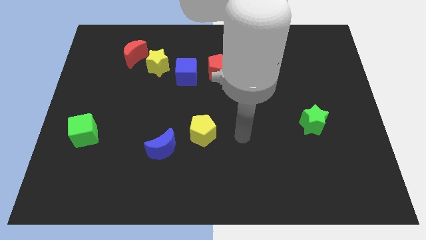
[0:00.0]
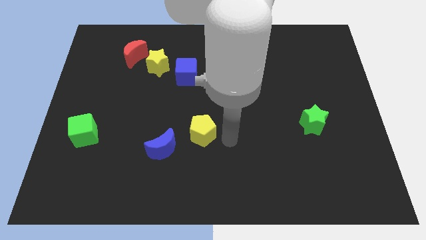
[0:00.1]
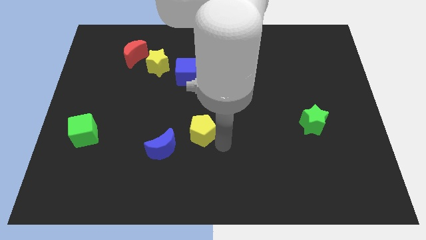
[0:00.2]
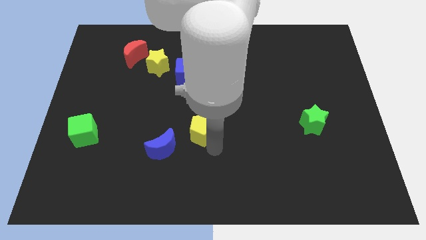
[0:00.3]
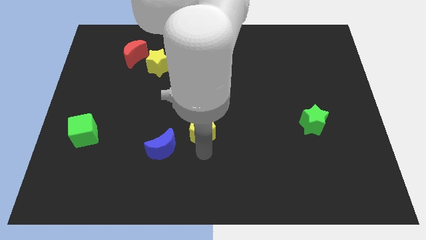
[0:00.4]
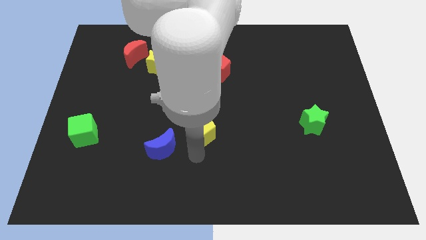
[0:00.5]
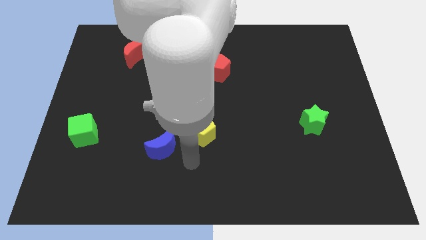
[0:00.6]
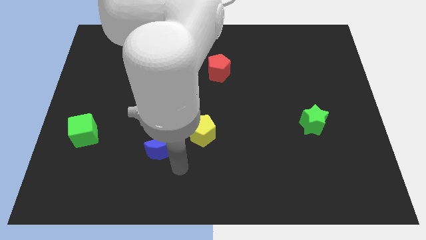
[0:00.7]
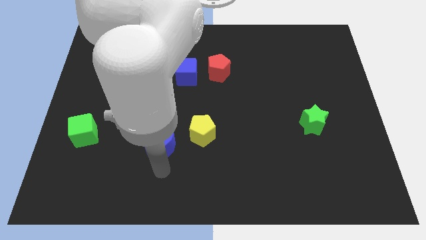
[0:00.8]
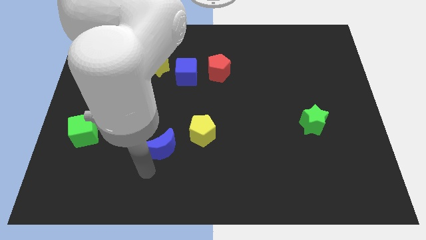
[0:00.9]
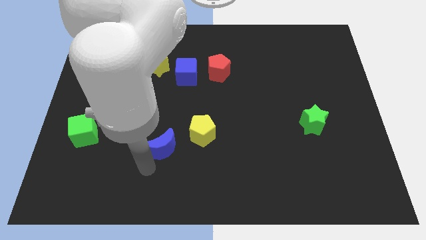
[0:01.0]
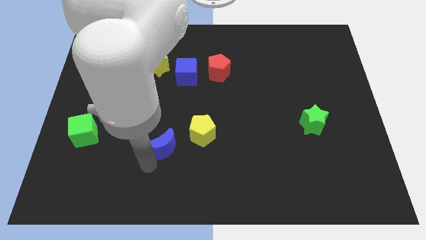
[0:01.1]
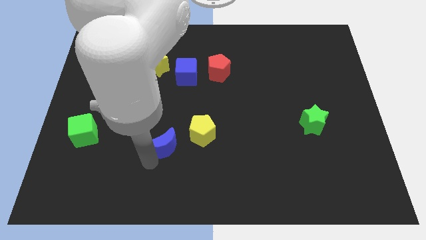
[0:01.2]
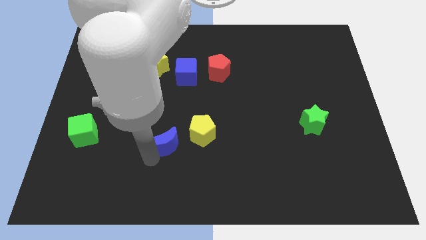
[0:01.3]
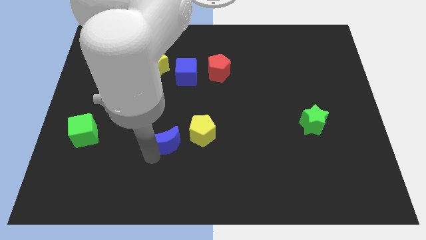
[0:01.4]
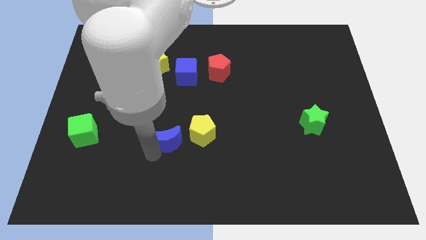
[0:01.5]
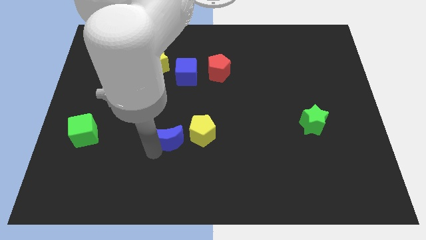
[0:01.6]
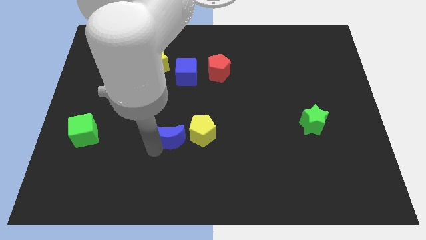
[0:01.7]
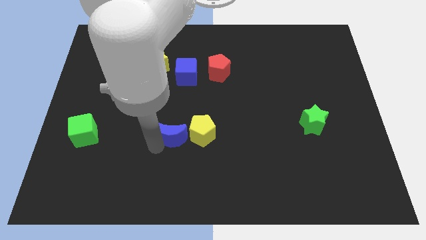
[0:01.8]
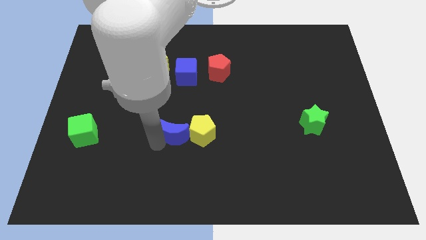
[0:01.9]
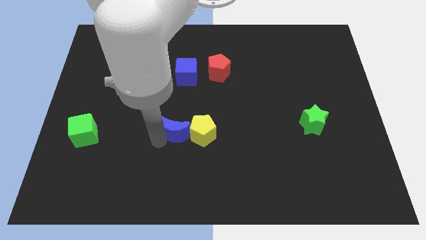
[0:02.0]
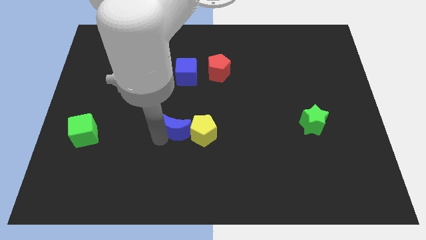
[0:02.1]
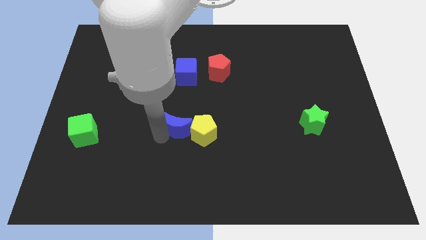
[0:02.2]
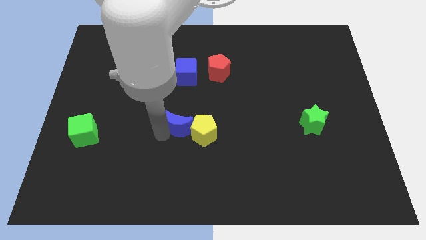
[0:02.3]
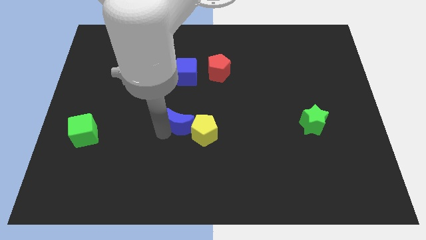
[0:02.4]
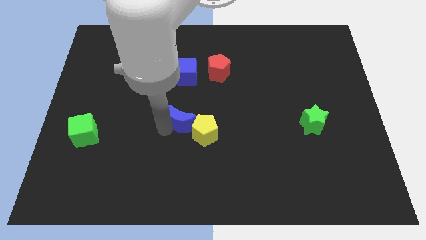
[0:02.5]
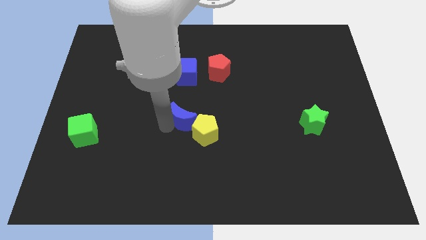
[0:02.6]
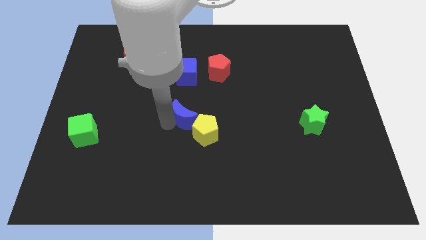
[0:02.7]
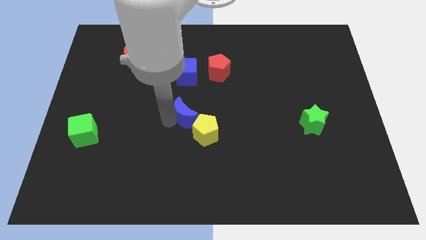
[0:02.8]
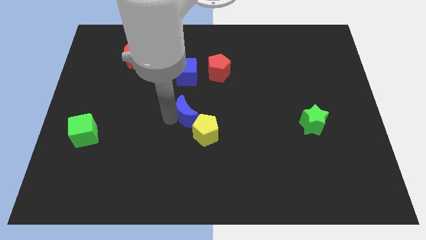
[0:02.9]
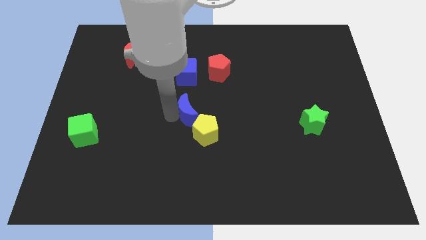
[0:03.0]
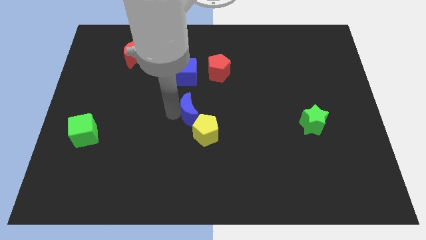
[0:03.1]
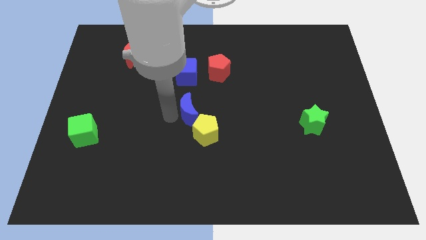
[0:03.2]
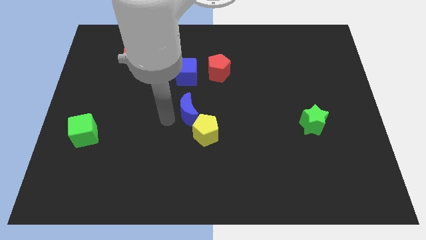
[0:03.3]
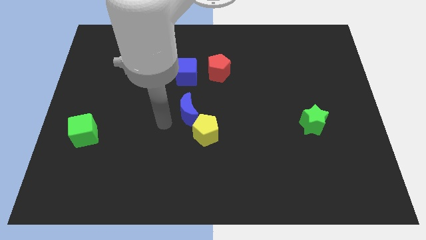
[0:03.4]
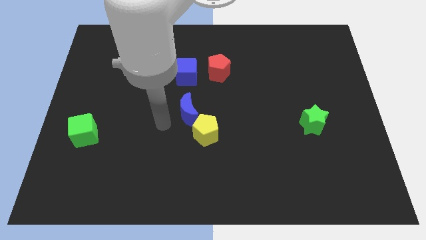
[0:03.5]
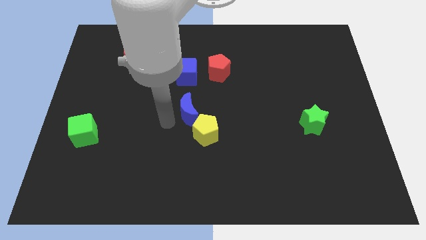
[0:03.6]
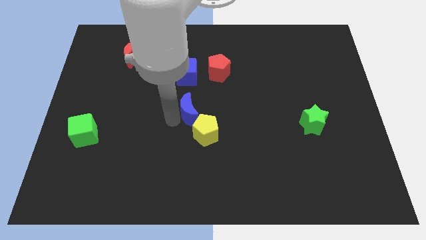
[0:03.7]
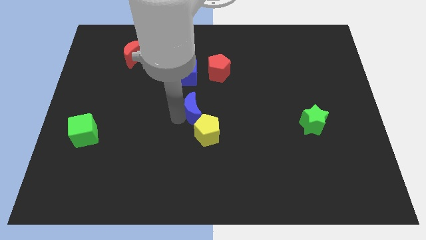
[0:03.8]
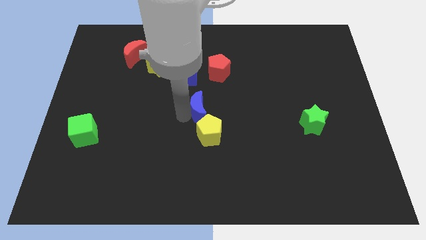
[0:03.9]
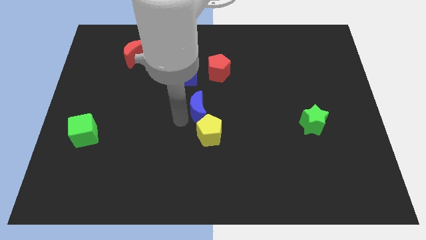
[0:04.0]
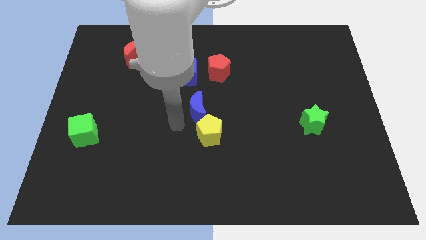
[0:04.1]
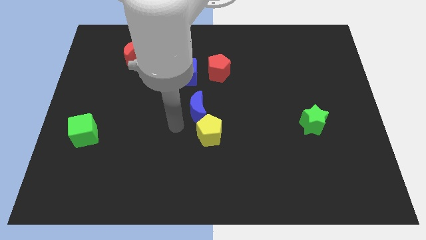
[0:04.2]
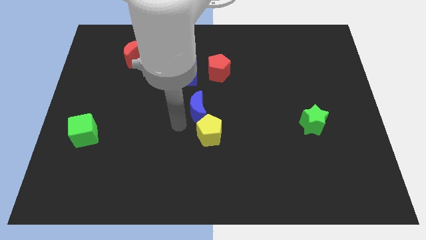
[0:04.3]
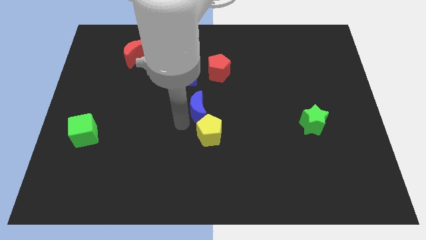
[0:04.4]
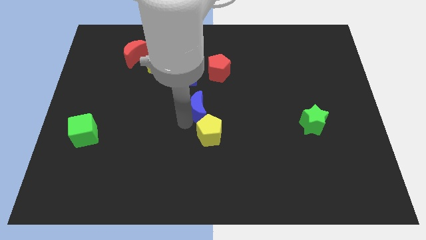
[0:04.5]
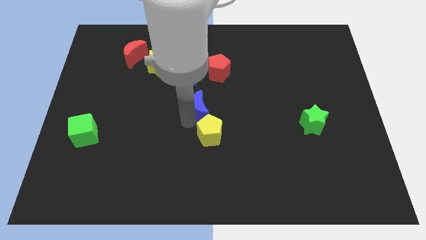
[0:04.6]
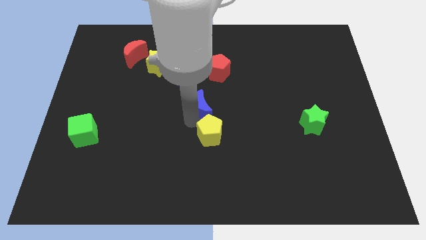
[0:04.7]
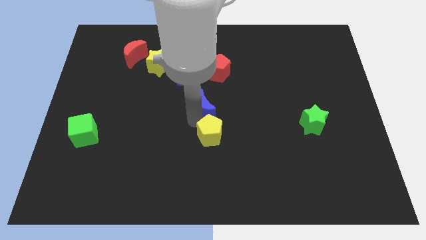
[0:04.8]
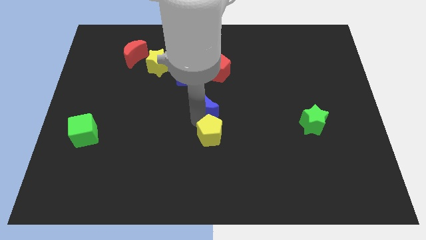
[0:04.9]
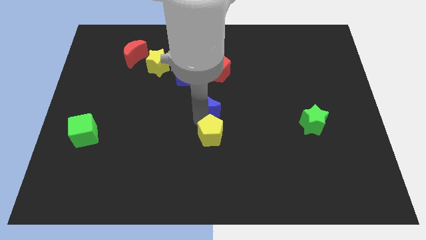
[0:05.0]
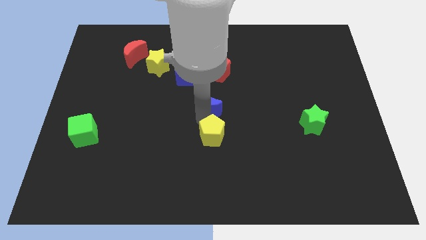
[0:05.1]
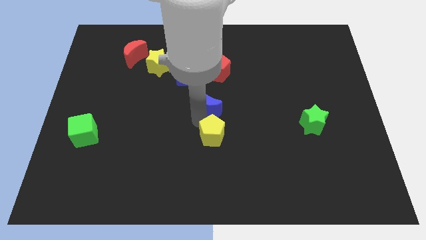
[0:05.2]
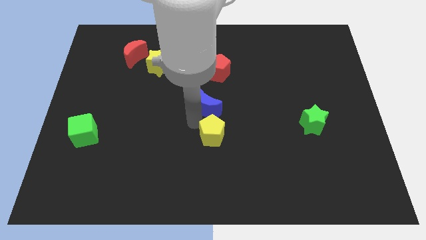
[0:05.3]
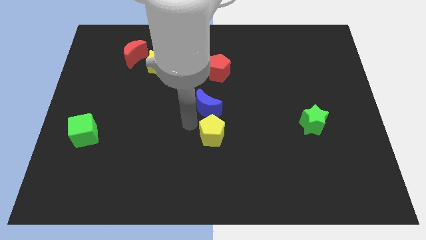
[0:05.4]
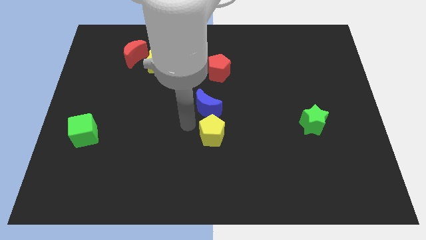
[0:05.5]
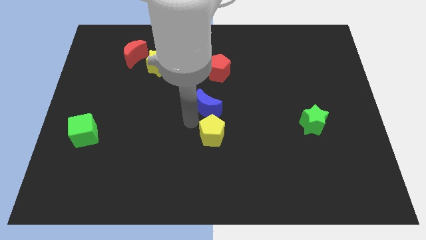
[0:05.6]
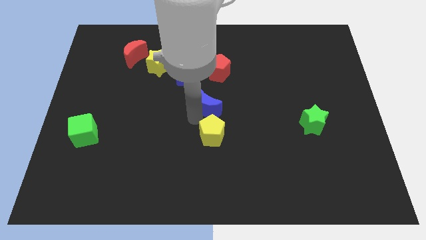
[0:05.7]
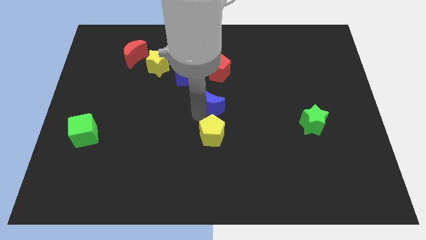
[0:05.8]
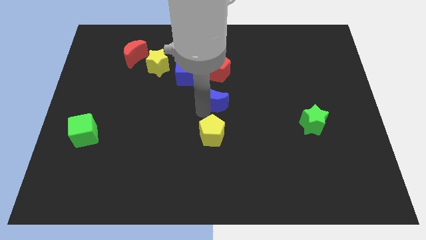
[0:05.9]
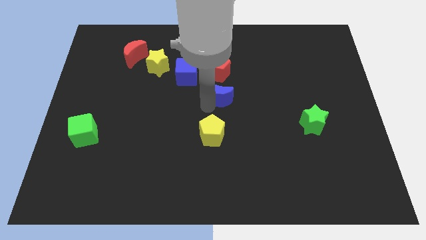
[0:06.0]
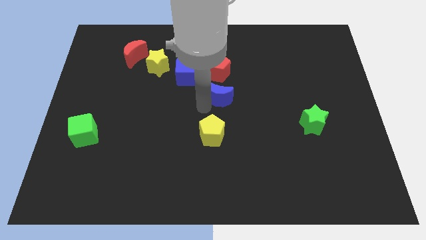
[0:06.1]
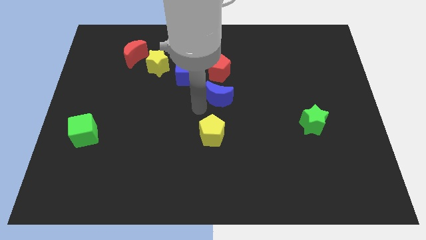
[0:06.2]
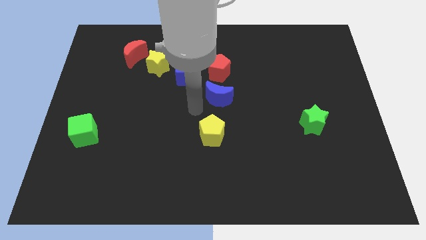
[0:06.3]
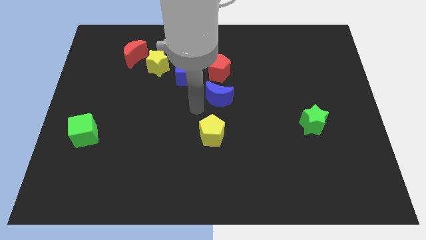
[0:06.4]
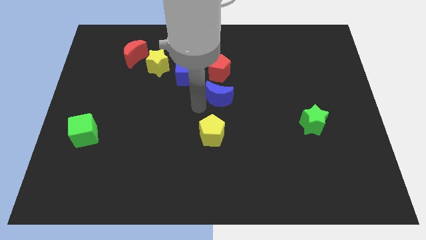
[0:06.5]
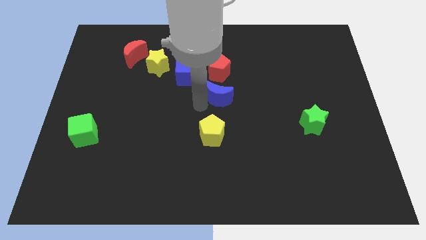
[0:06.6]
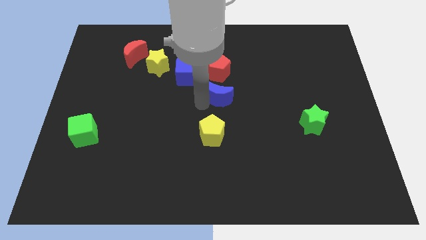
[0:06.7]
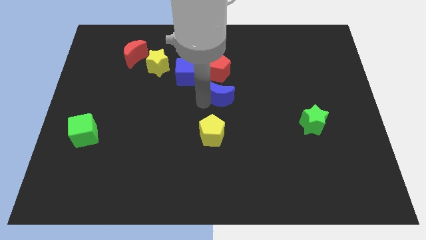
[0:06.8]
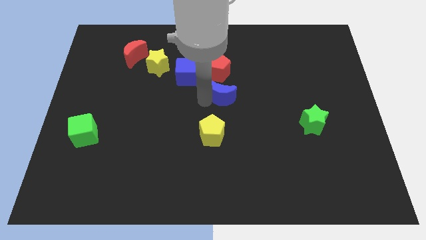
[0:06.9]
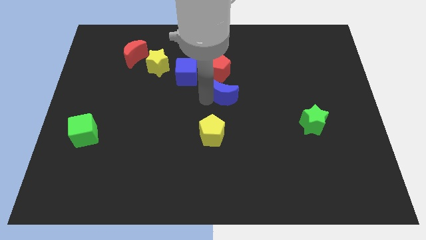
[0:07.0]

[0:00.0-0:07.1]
slide the blue moon diagonally up and to the right

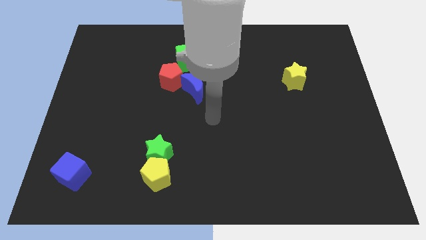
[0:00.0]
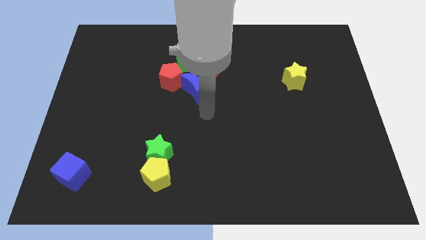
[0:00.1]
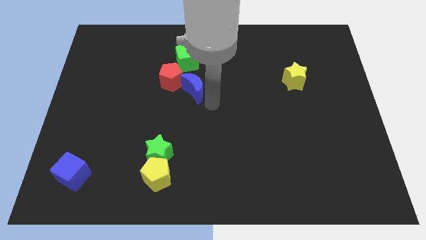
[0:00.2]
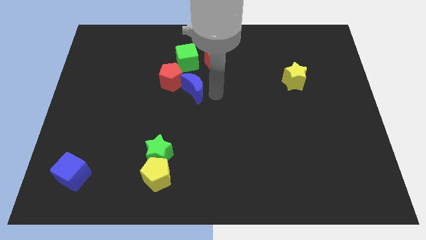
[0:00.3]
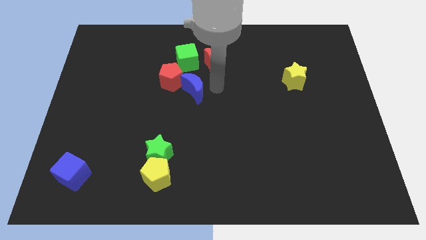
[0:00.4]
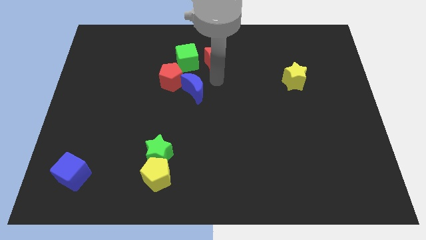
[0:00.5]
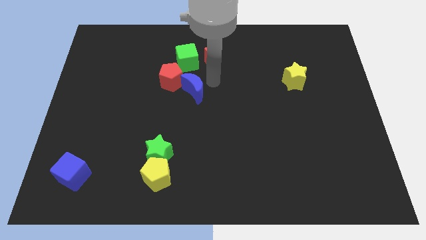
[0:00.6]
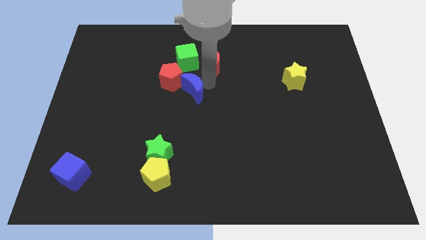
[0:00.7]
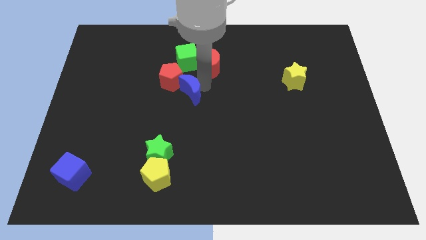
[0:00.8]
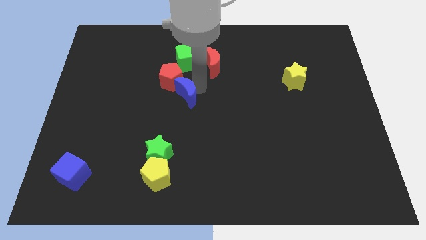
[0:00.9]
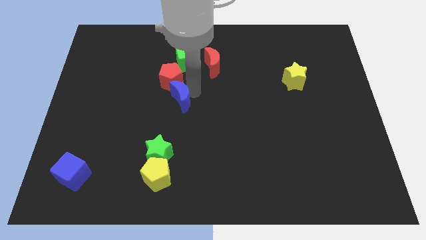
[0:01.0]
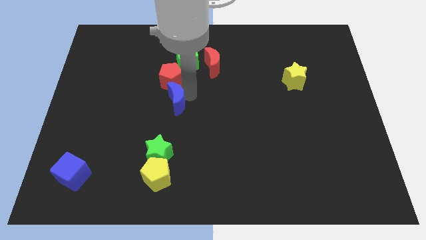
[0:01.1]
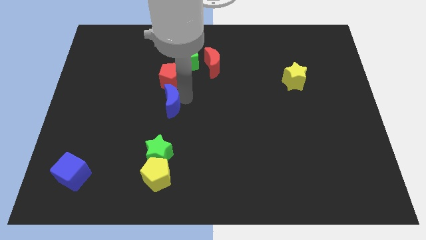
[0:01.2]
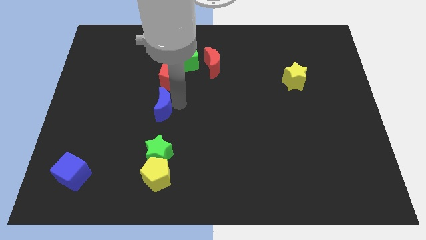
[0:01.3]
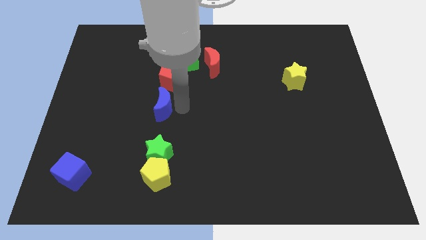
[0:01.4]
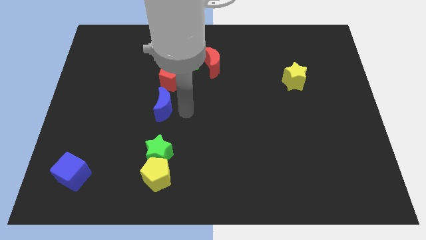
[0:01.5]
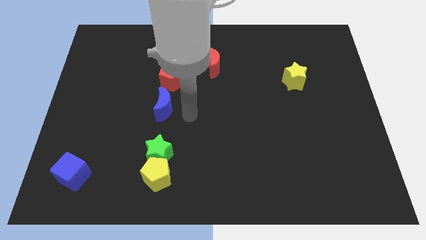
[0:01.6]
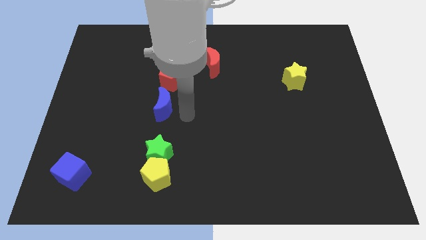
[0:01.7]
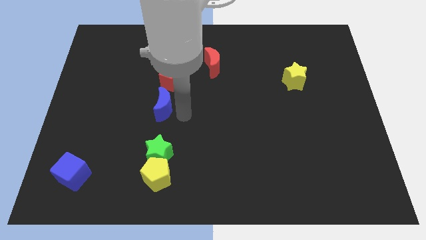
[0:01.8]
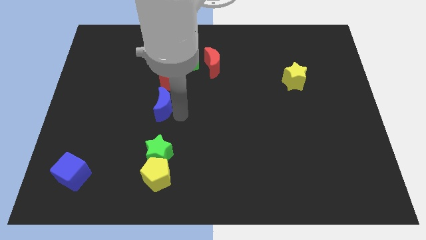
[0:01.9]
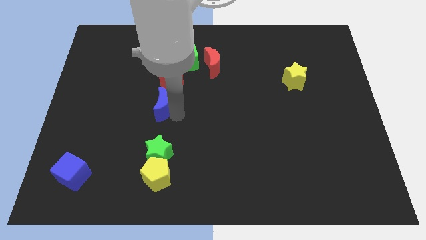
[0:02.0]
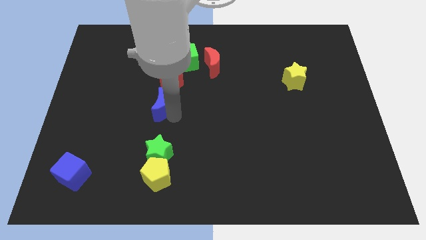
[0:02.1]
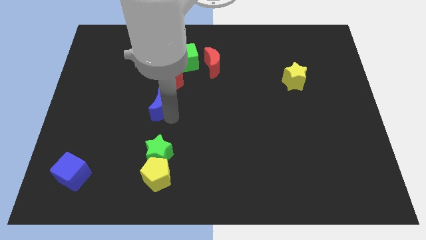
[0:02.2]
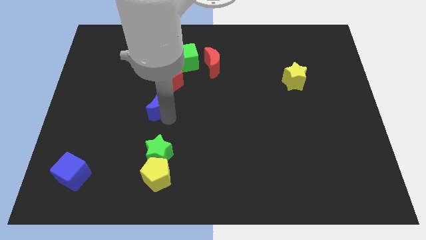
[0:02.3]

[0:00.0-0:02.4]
slide the blue moon left a bit
